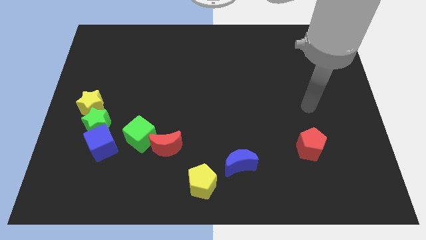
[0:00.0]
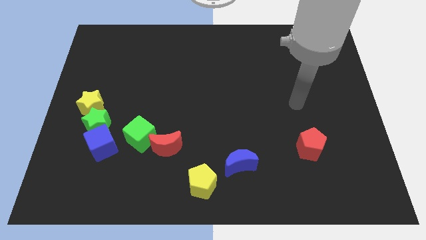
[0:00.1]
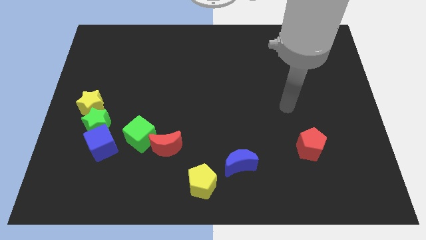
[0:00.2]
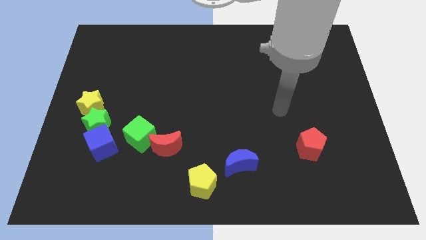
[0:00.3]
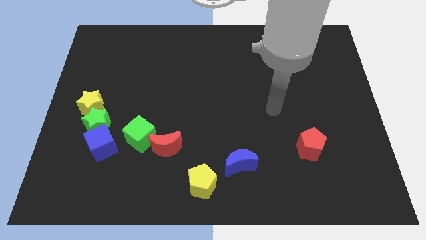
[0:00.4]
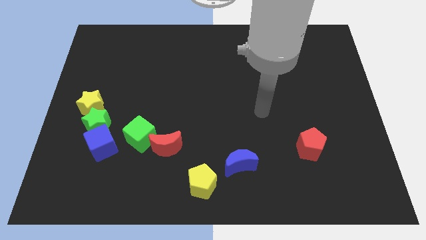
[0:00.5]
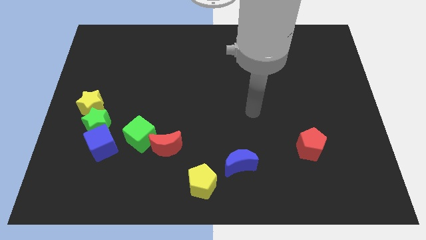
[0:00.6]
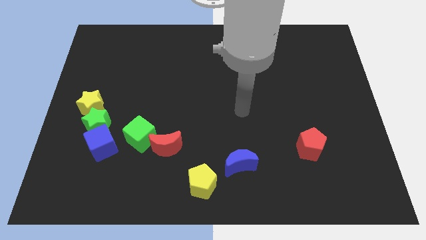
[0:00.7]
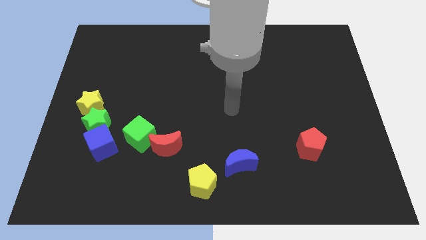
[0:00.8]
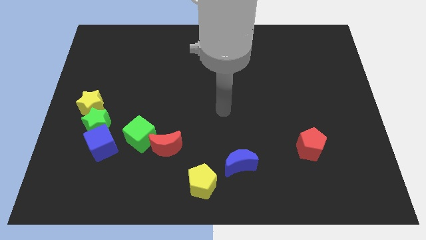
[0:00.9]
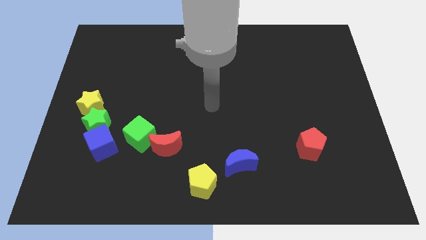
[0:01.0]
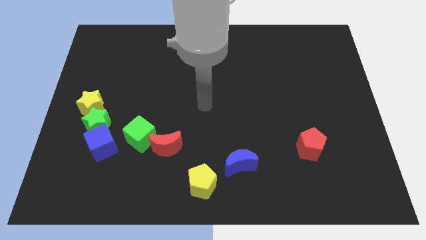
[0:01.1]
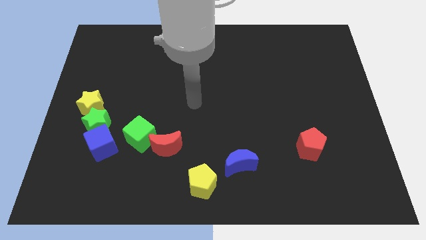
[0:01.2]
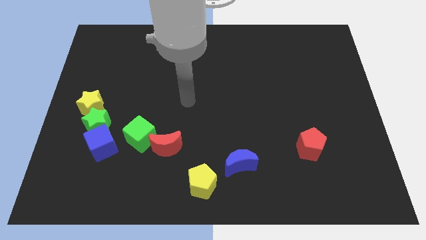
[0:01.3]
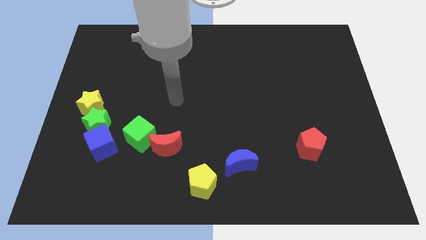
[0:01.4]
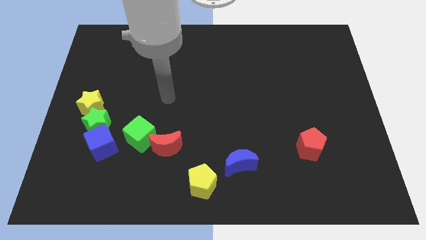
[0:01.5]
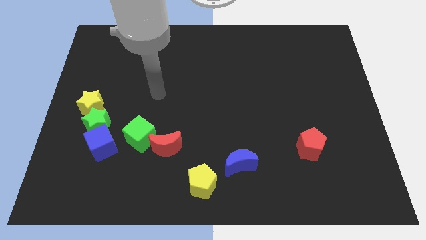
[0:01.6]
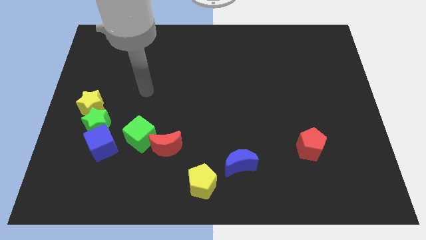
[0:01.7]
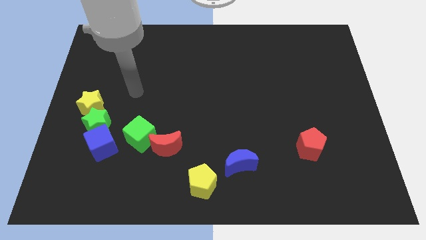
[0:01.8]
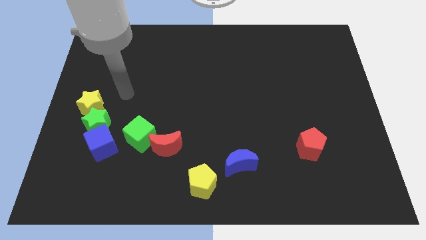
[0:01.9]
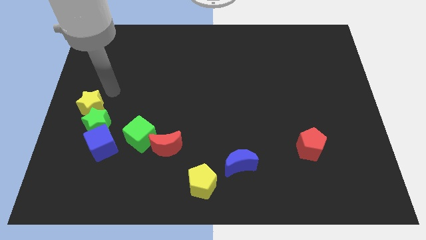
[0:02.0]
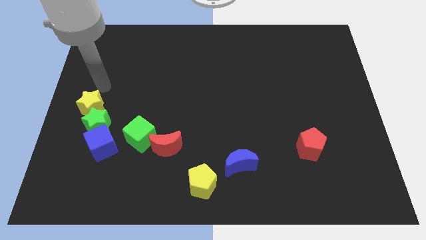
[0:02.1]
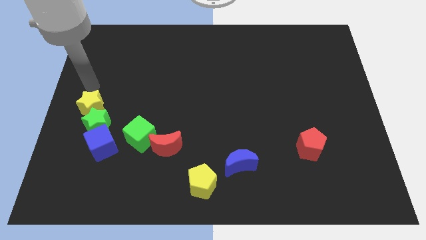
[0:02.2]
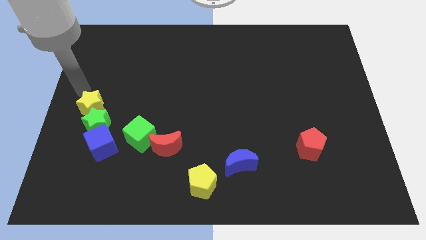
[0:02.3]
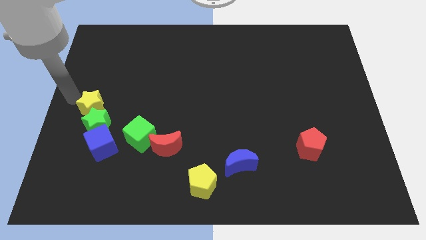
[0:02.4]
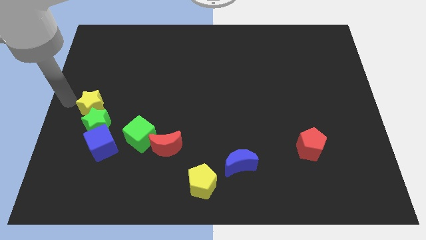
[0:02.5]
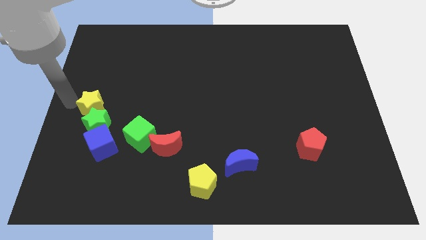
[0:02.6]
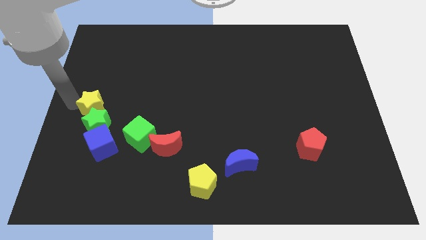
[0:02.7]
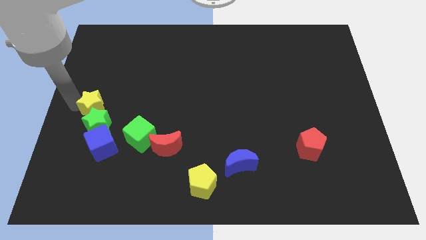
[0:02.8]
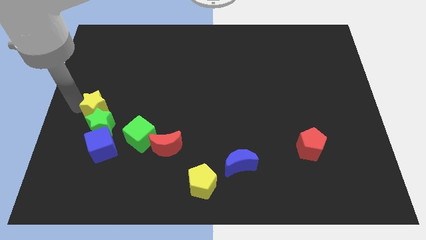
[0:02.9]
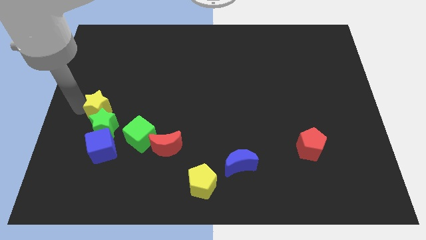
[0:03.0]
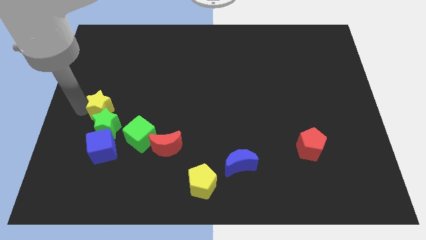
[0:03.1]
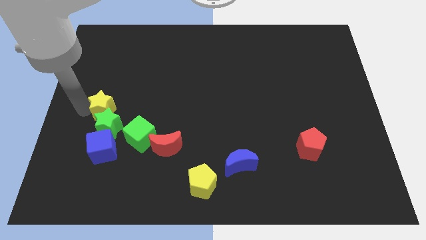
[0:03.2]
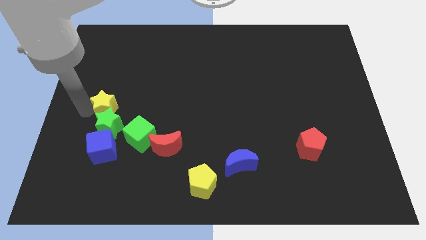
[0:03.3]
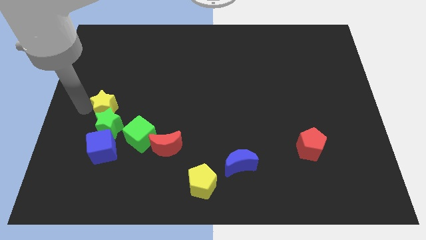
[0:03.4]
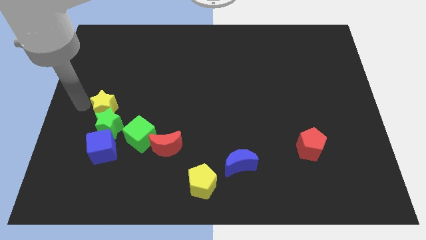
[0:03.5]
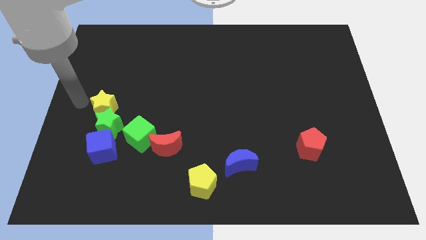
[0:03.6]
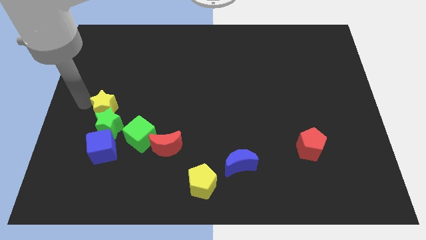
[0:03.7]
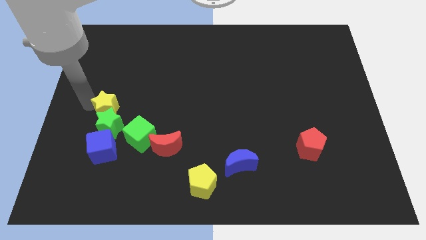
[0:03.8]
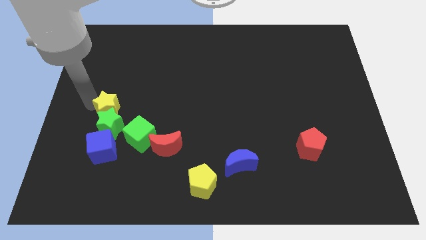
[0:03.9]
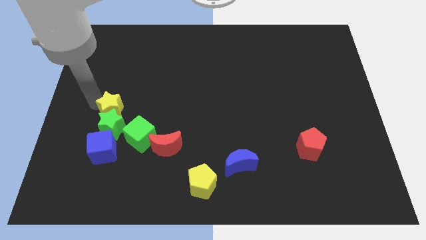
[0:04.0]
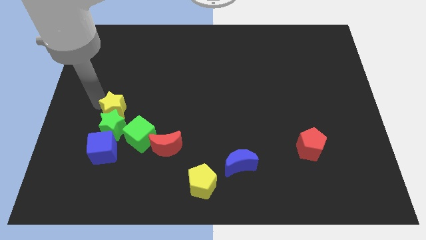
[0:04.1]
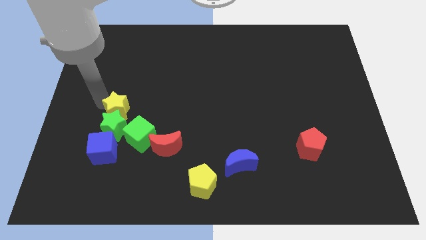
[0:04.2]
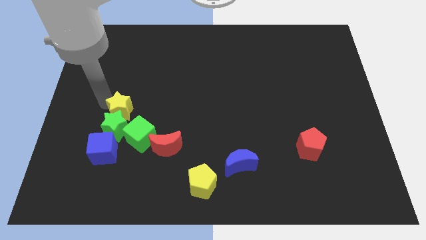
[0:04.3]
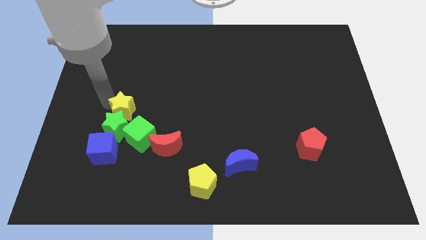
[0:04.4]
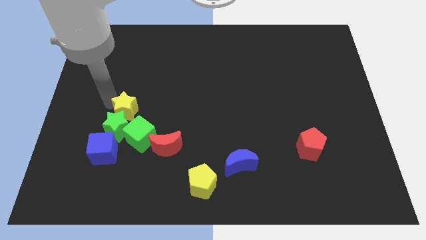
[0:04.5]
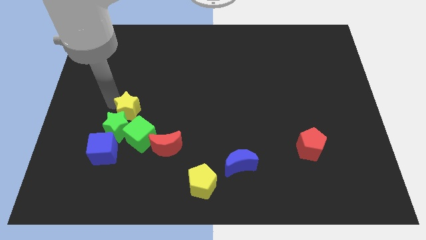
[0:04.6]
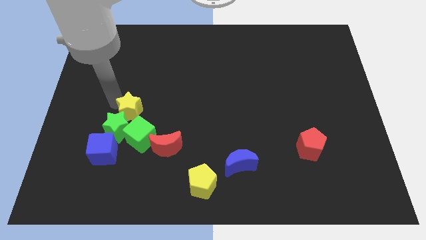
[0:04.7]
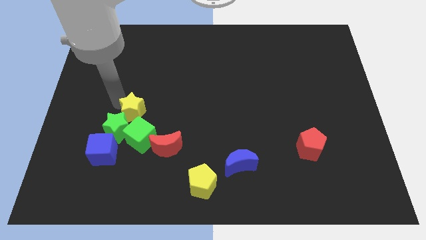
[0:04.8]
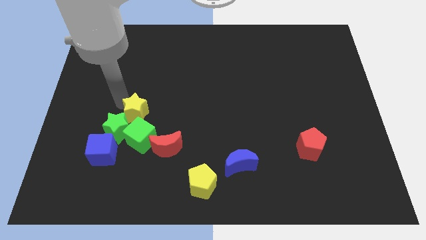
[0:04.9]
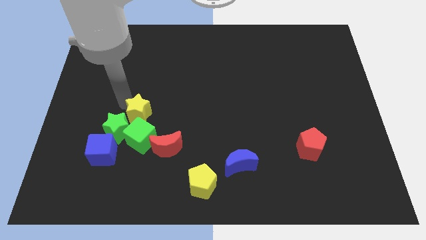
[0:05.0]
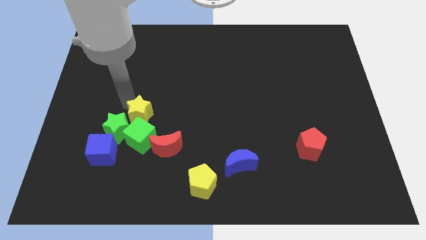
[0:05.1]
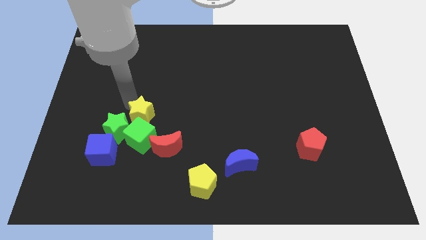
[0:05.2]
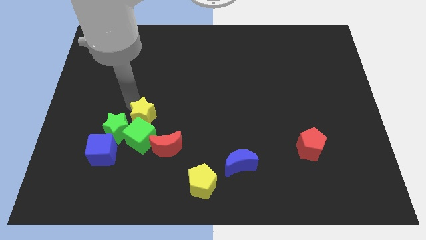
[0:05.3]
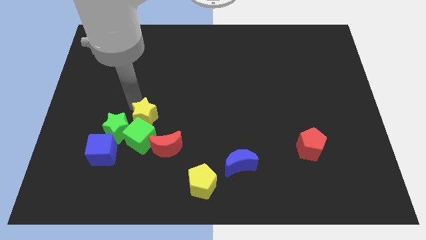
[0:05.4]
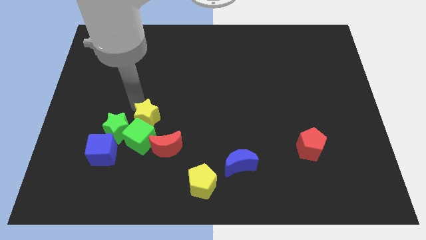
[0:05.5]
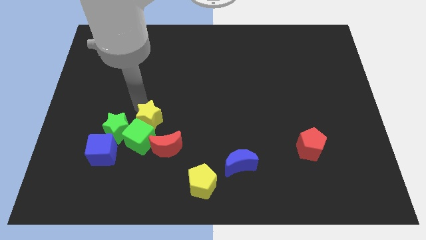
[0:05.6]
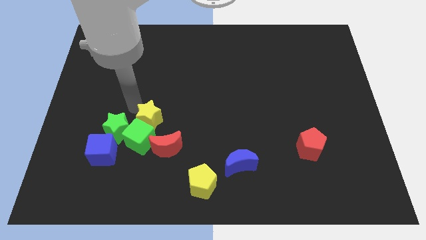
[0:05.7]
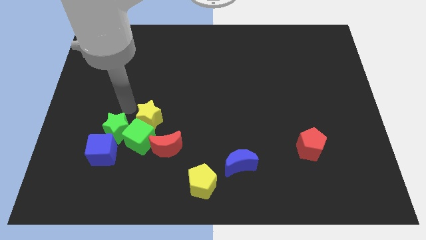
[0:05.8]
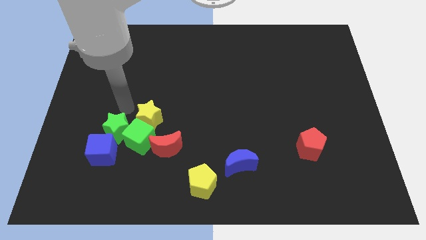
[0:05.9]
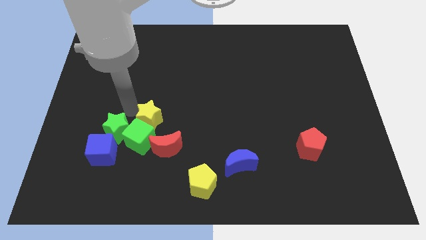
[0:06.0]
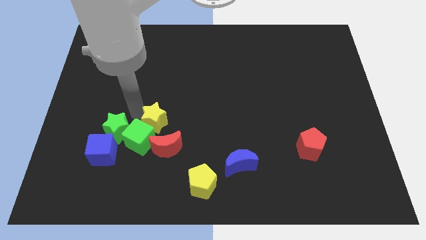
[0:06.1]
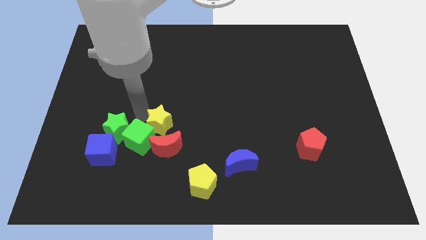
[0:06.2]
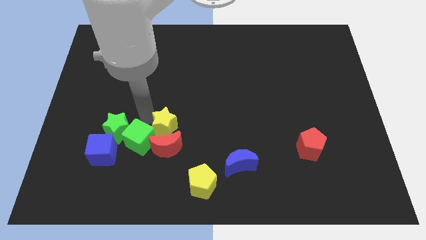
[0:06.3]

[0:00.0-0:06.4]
put the yellow star to the top right of the red moon

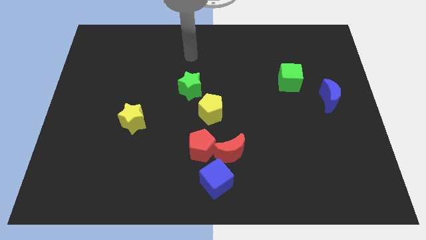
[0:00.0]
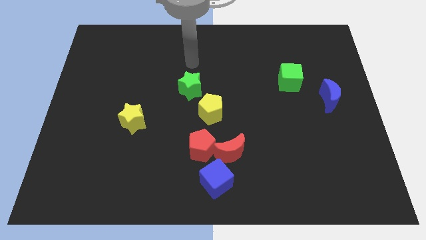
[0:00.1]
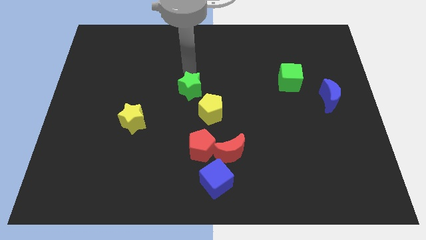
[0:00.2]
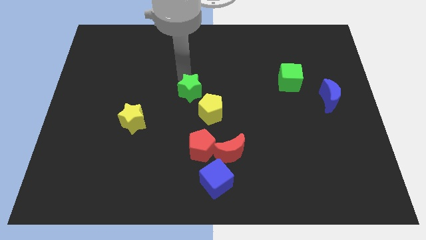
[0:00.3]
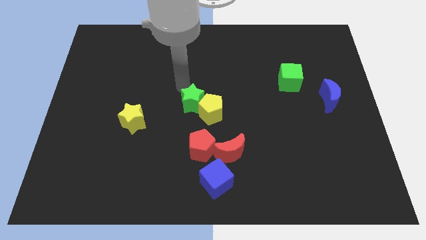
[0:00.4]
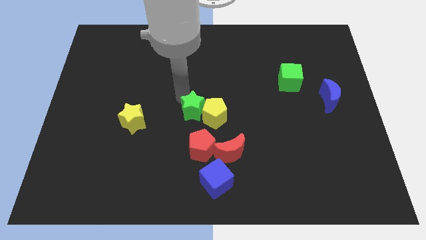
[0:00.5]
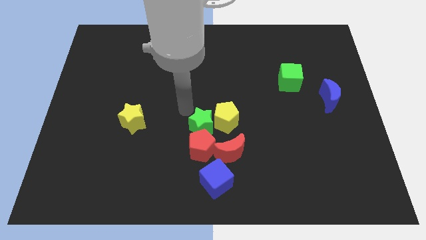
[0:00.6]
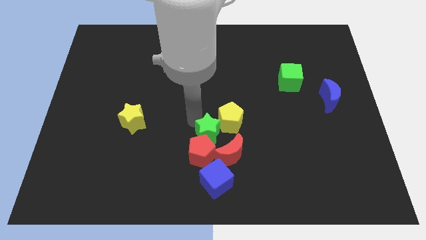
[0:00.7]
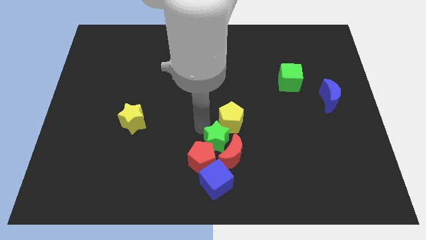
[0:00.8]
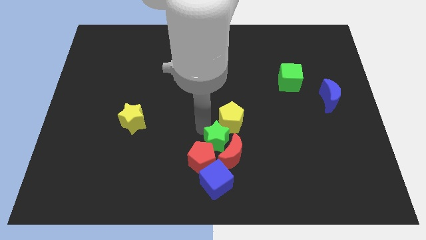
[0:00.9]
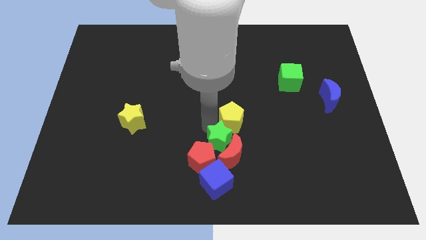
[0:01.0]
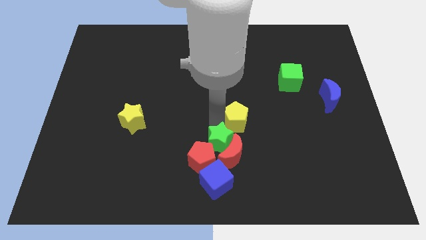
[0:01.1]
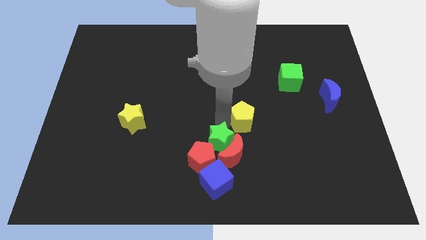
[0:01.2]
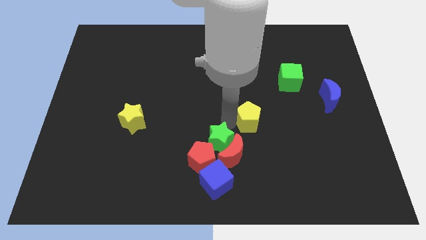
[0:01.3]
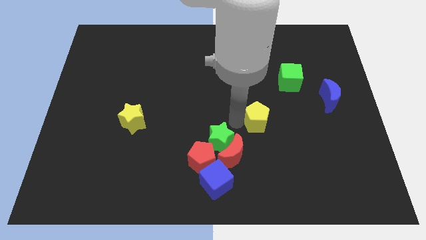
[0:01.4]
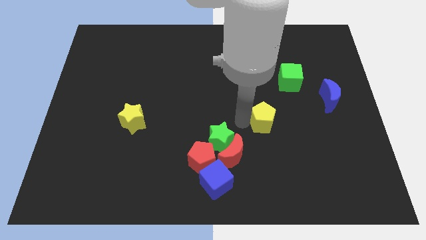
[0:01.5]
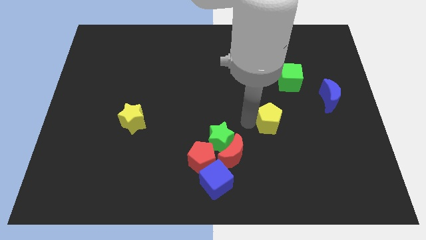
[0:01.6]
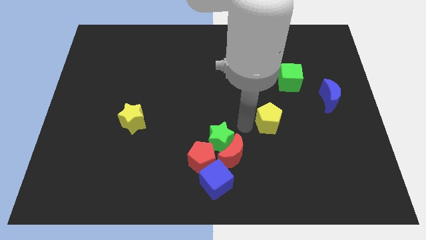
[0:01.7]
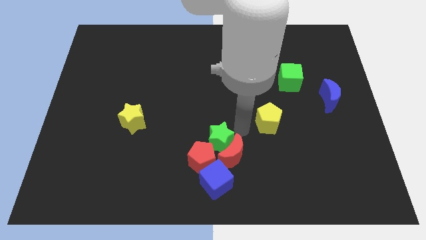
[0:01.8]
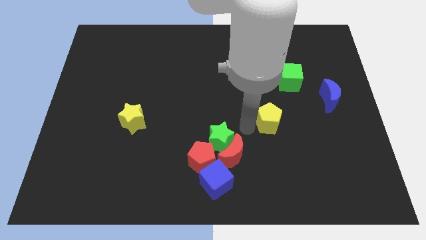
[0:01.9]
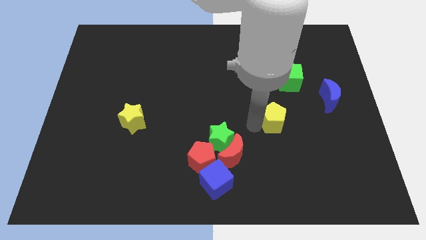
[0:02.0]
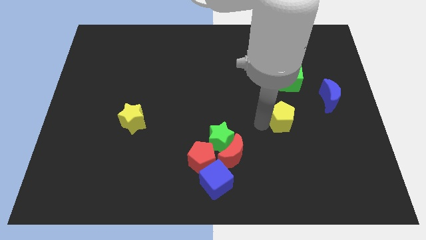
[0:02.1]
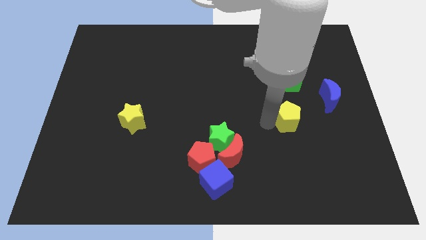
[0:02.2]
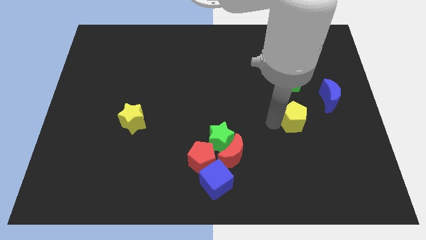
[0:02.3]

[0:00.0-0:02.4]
move the yellow pentagon to the bottom left side of the blue moon
